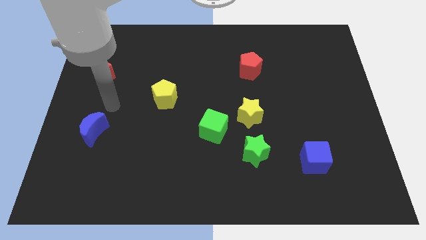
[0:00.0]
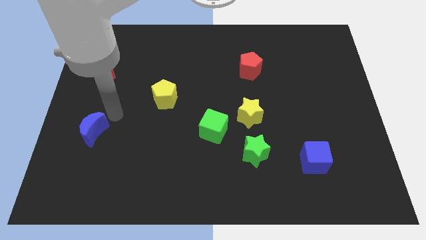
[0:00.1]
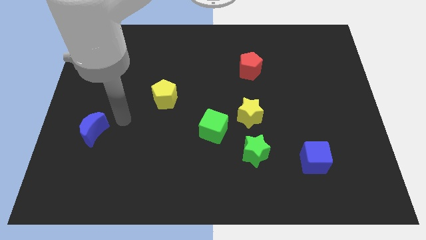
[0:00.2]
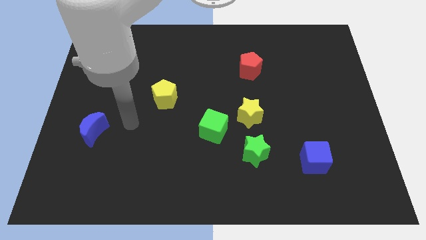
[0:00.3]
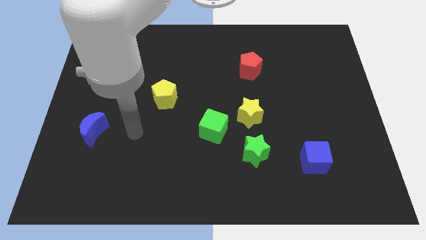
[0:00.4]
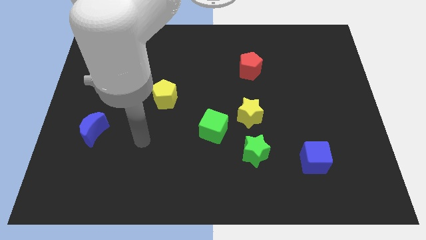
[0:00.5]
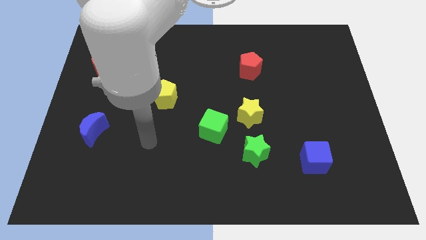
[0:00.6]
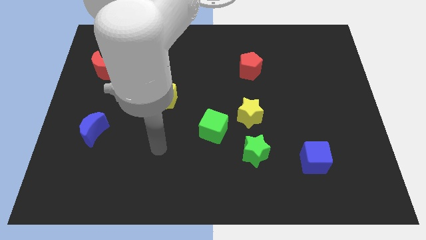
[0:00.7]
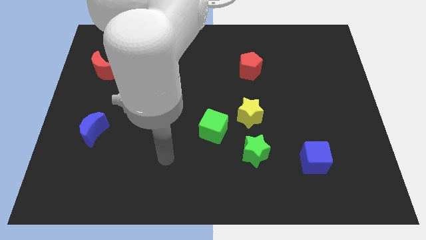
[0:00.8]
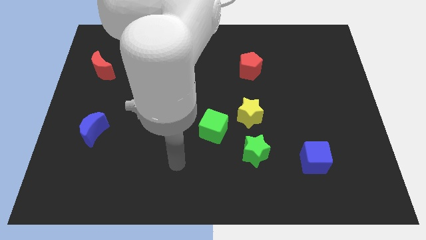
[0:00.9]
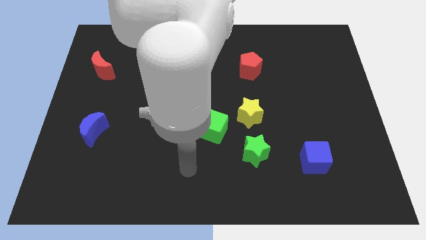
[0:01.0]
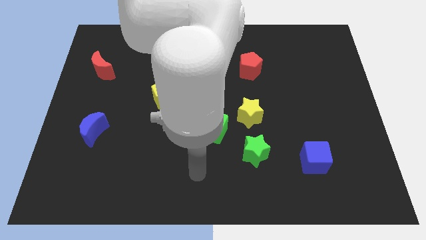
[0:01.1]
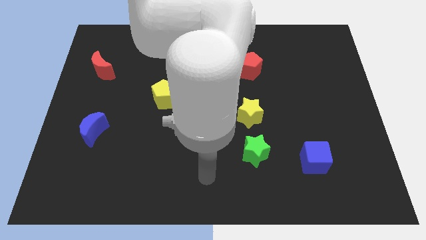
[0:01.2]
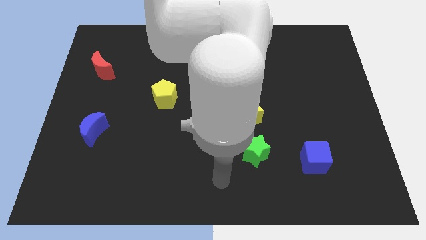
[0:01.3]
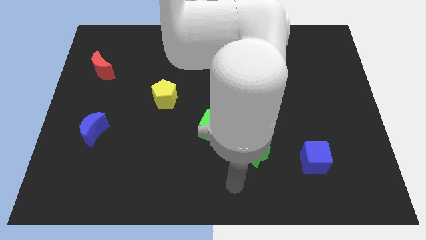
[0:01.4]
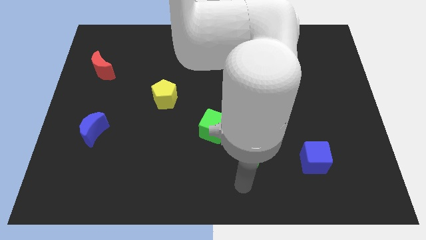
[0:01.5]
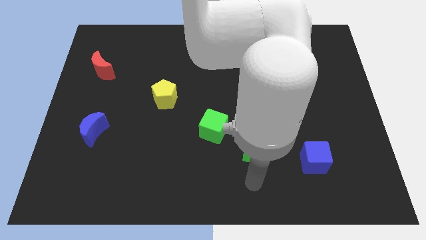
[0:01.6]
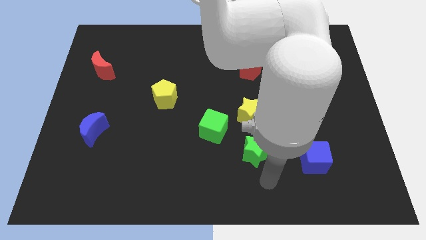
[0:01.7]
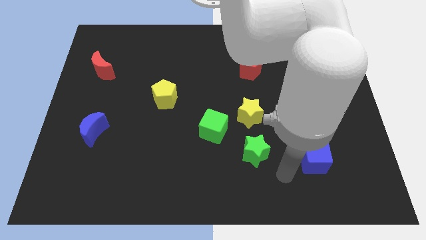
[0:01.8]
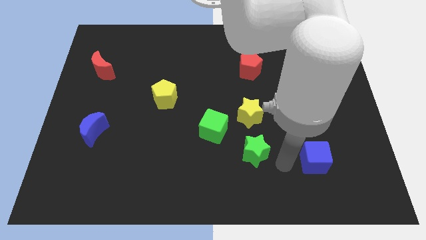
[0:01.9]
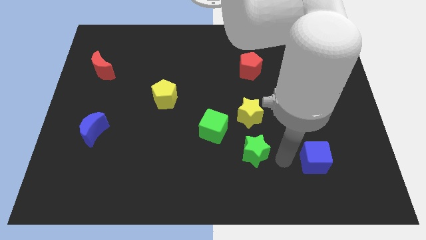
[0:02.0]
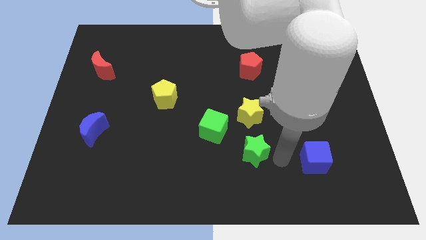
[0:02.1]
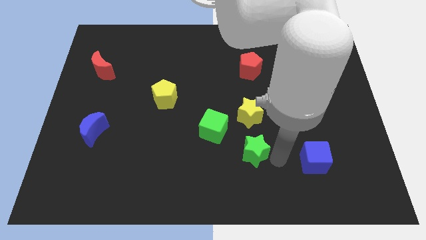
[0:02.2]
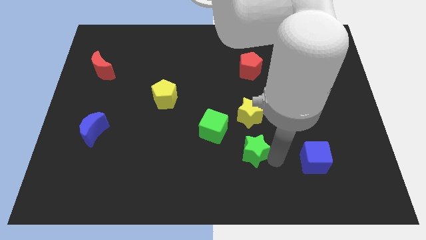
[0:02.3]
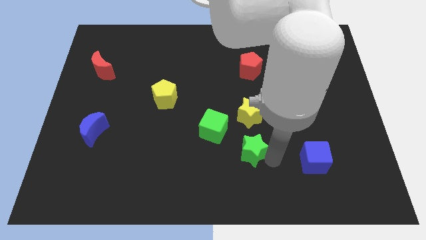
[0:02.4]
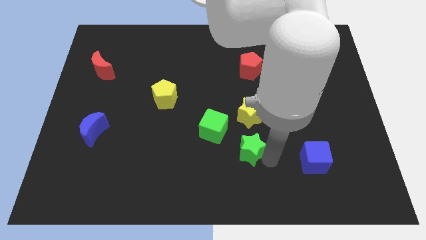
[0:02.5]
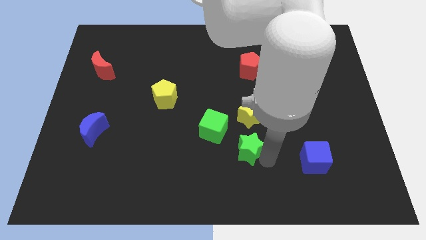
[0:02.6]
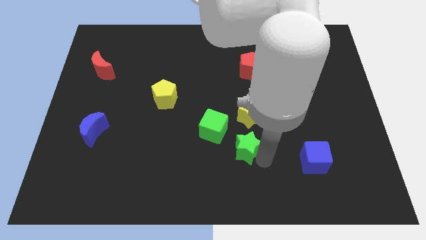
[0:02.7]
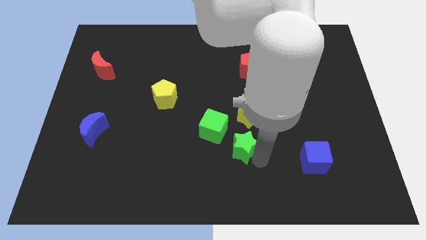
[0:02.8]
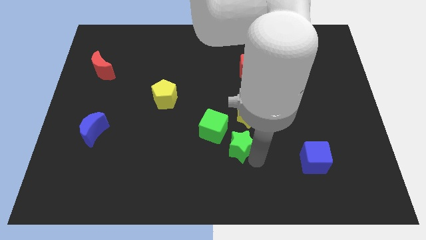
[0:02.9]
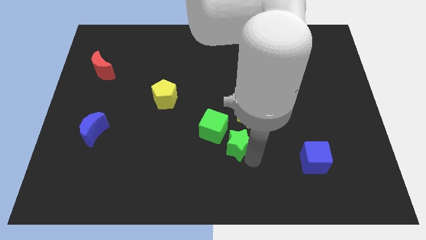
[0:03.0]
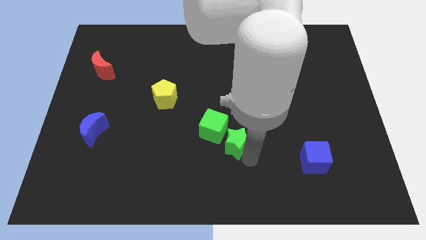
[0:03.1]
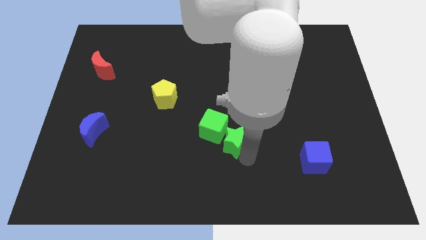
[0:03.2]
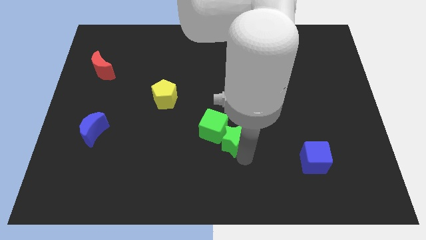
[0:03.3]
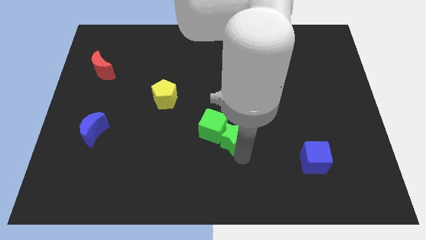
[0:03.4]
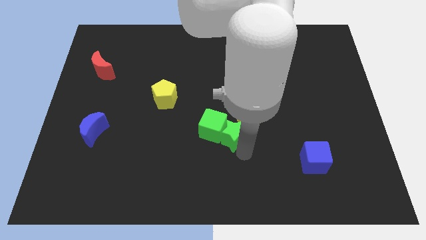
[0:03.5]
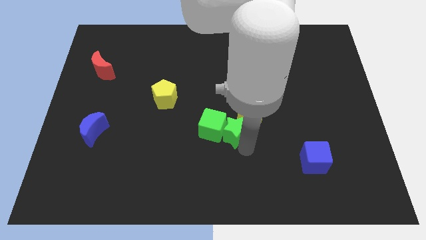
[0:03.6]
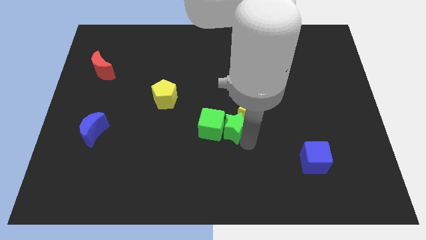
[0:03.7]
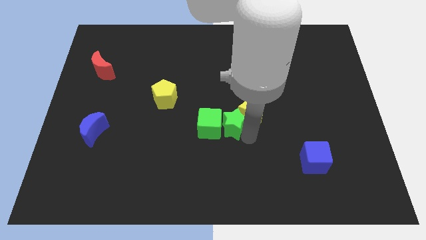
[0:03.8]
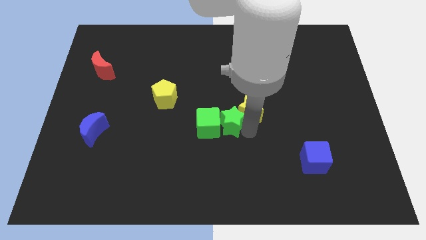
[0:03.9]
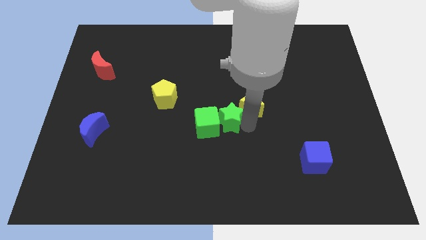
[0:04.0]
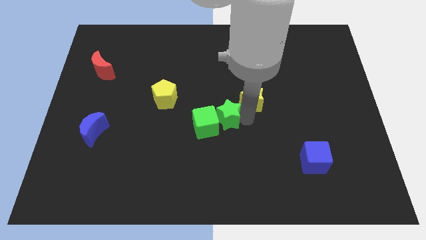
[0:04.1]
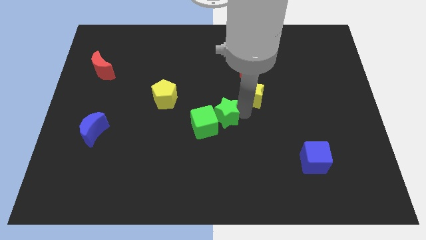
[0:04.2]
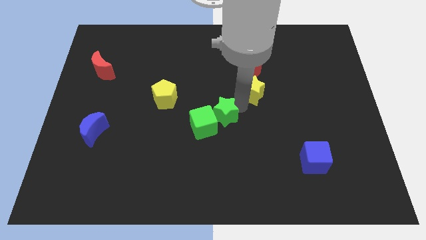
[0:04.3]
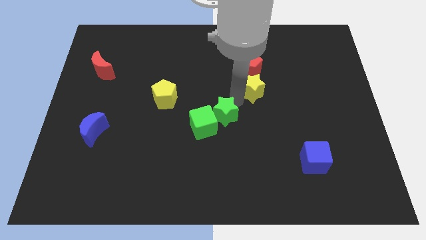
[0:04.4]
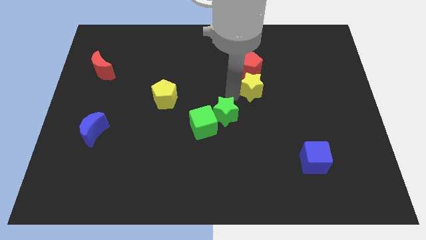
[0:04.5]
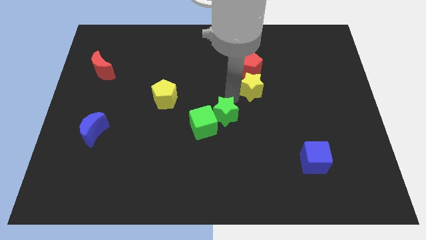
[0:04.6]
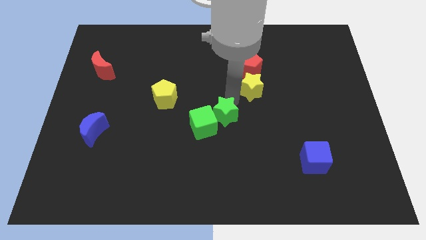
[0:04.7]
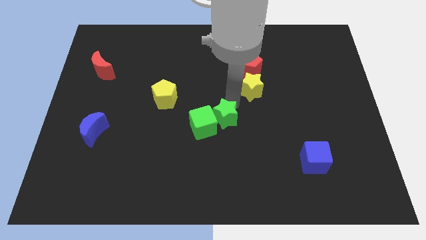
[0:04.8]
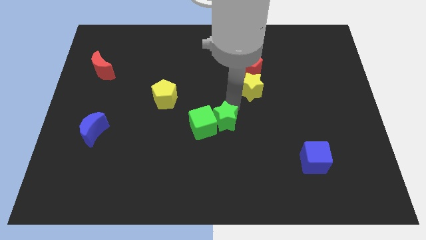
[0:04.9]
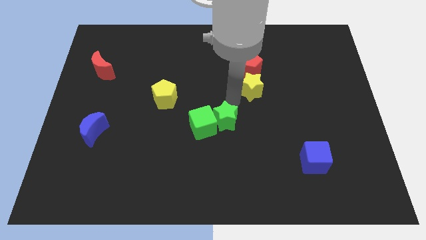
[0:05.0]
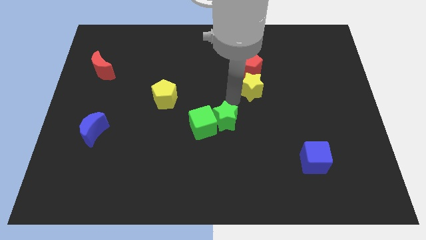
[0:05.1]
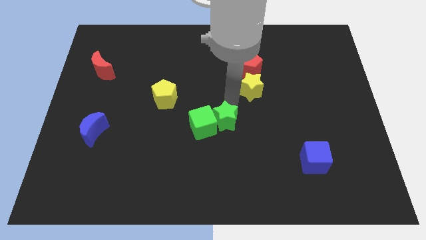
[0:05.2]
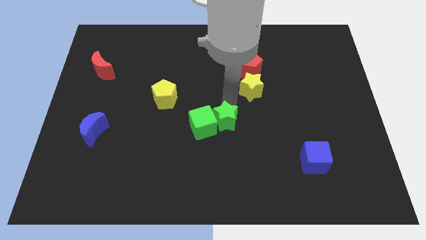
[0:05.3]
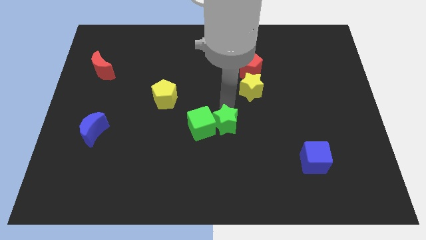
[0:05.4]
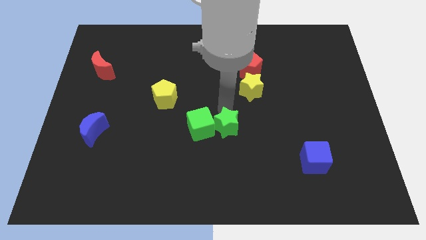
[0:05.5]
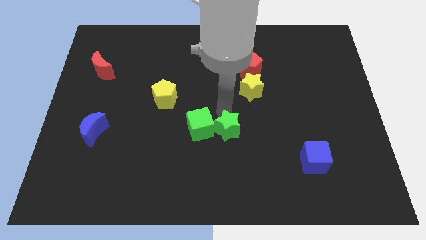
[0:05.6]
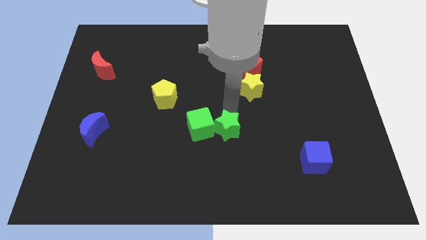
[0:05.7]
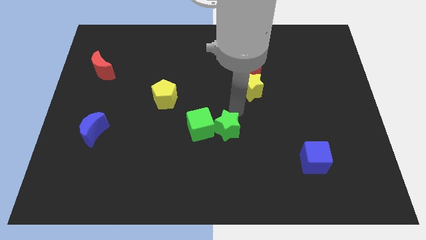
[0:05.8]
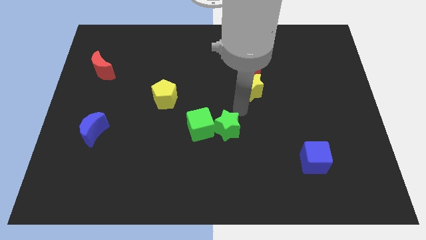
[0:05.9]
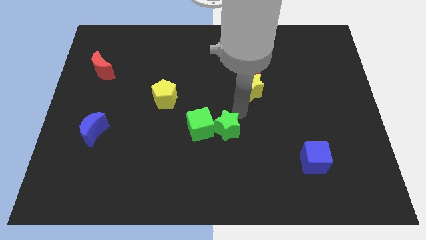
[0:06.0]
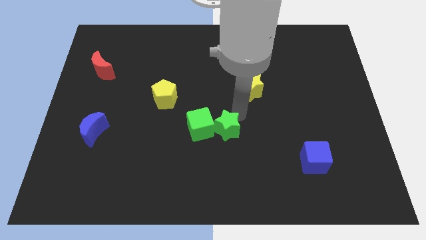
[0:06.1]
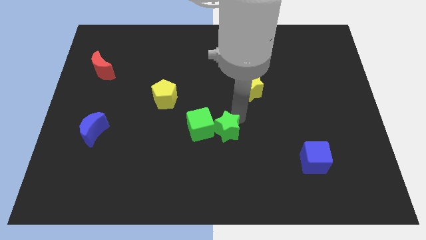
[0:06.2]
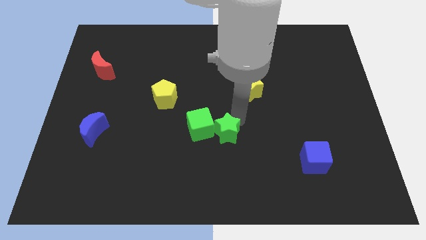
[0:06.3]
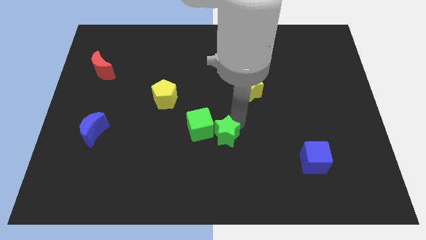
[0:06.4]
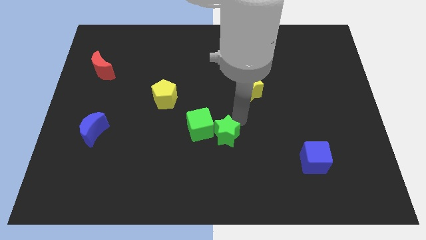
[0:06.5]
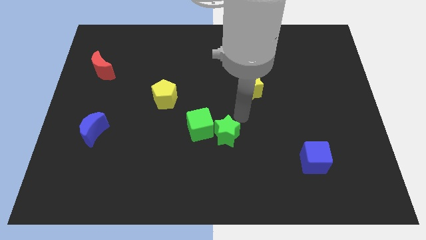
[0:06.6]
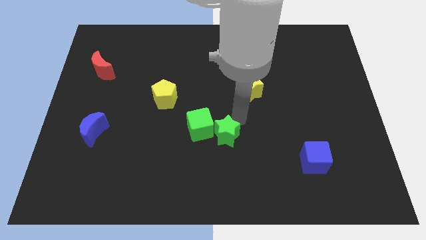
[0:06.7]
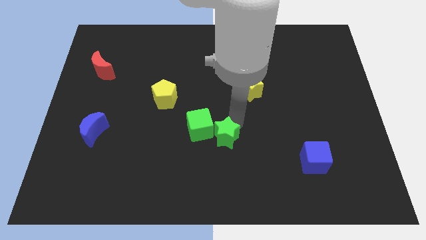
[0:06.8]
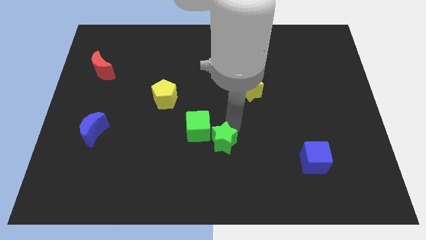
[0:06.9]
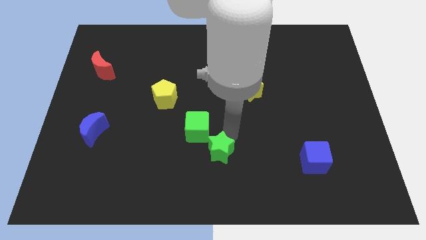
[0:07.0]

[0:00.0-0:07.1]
move the green star a bit left

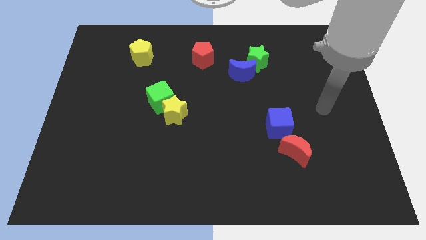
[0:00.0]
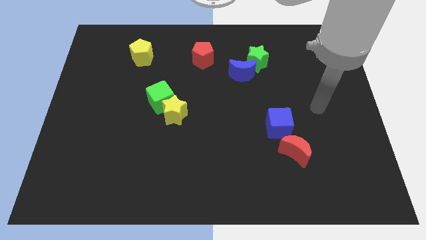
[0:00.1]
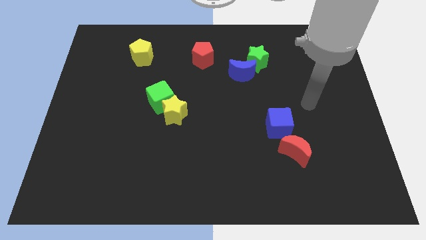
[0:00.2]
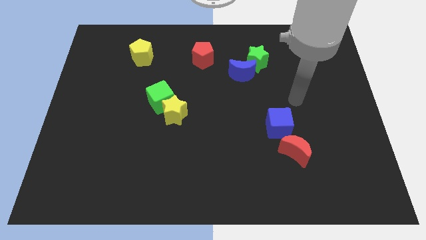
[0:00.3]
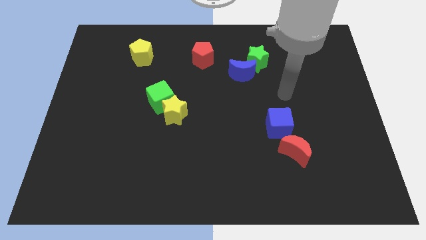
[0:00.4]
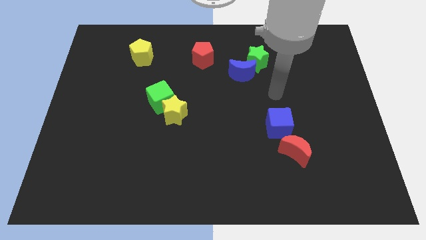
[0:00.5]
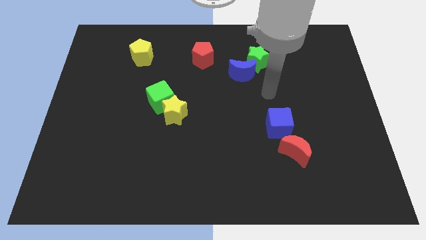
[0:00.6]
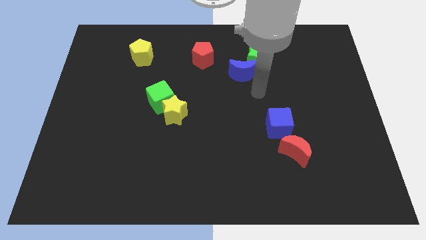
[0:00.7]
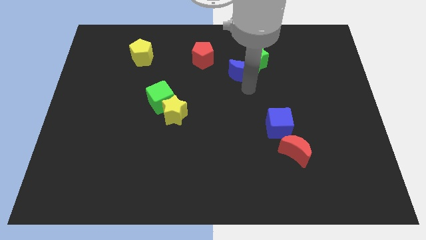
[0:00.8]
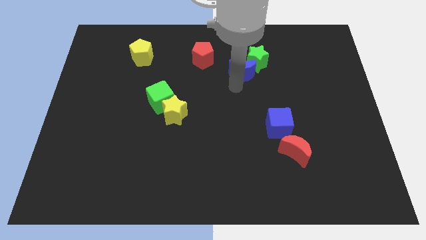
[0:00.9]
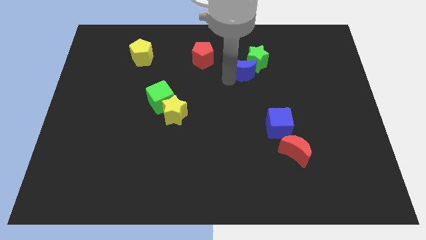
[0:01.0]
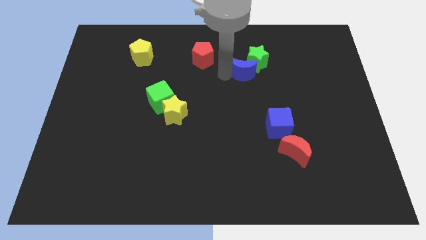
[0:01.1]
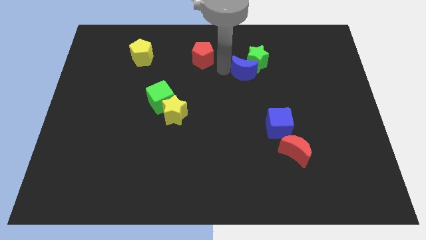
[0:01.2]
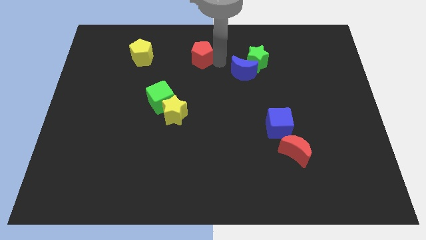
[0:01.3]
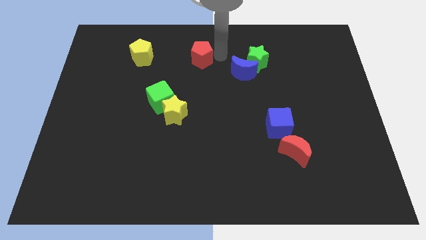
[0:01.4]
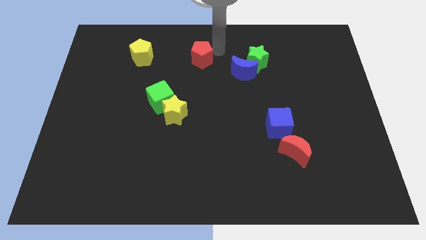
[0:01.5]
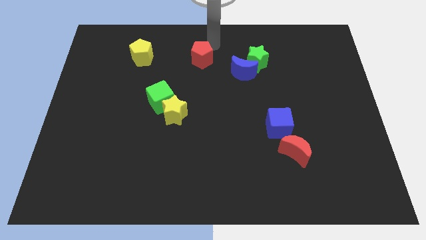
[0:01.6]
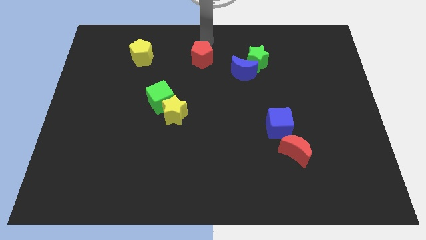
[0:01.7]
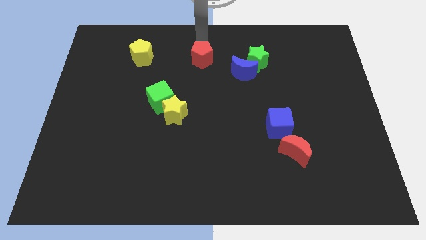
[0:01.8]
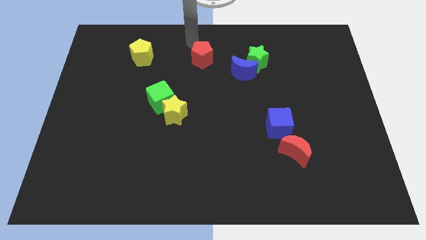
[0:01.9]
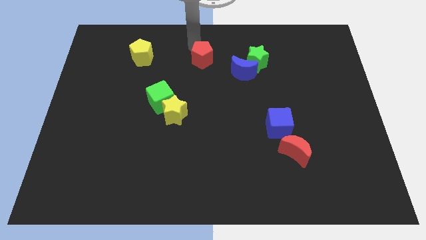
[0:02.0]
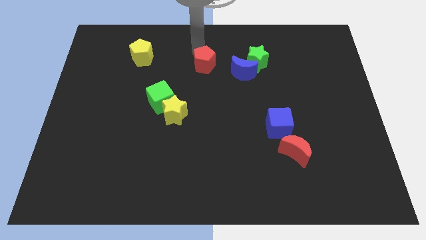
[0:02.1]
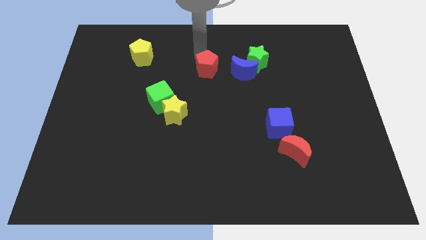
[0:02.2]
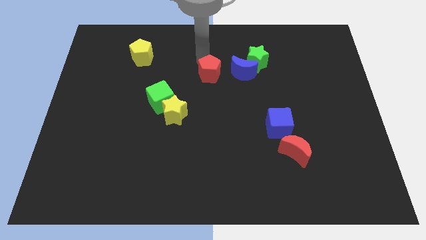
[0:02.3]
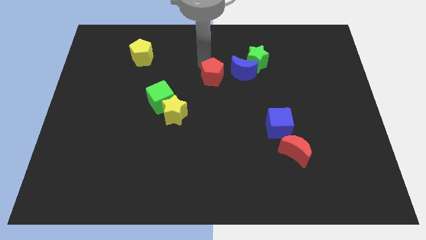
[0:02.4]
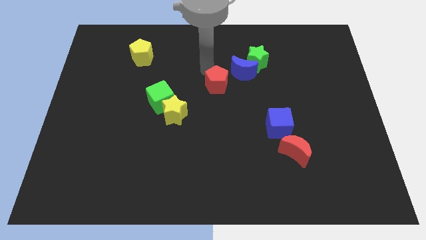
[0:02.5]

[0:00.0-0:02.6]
slightly move the red pentagon down and then right
